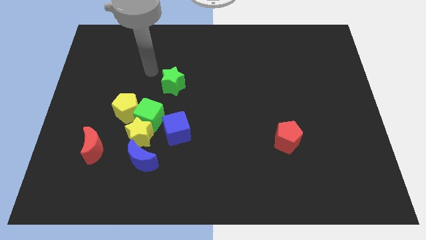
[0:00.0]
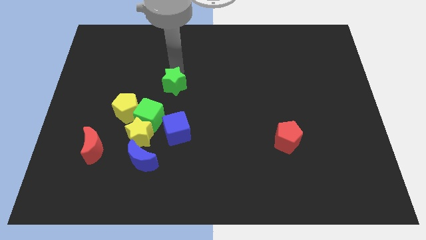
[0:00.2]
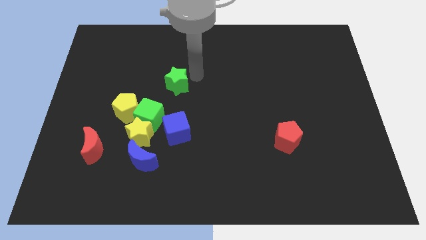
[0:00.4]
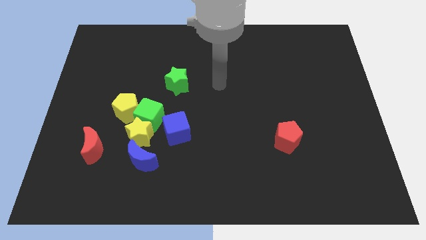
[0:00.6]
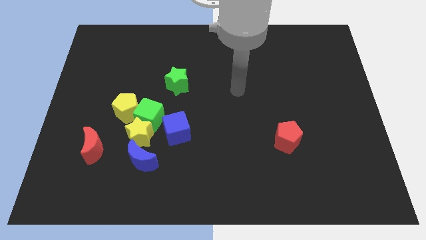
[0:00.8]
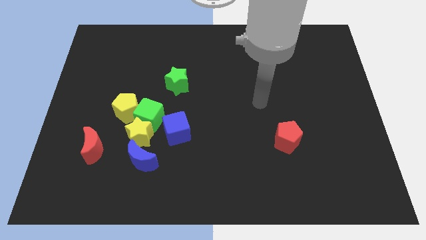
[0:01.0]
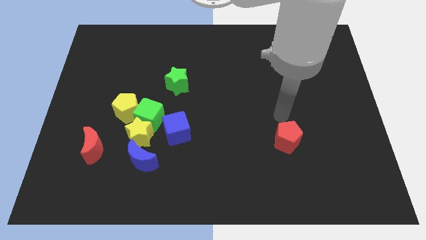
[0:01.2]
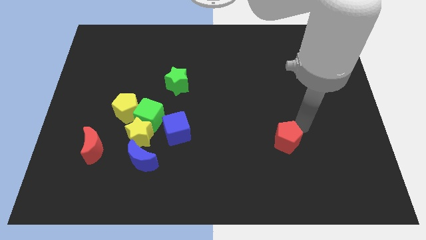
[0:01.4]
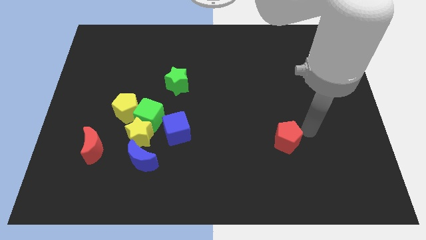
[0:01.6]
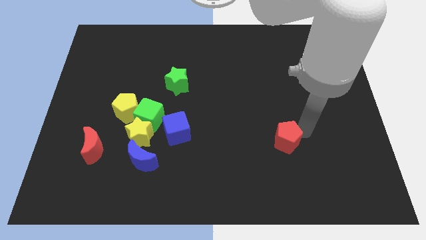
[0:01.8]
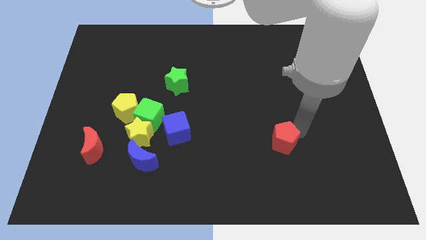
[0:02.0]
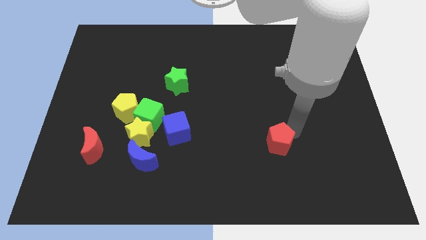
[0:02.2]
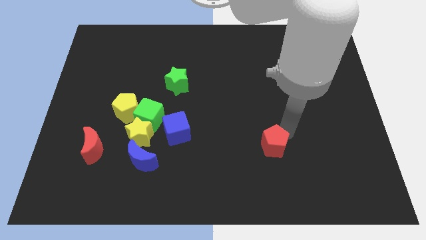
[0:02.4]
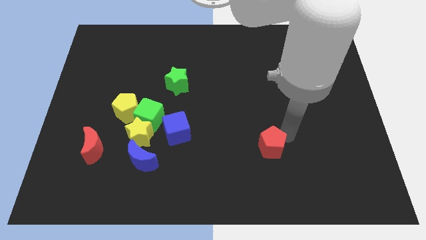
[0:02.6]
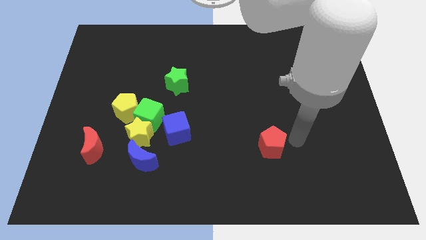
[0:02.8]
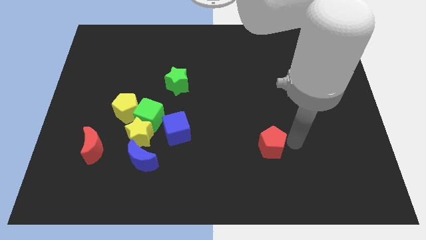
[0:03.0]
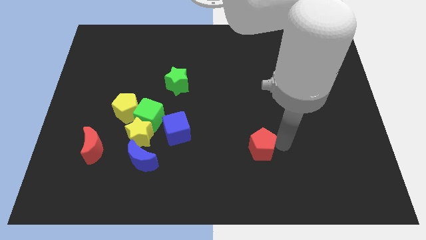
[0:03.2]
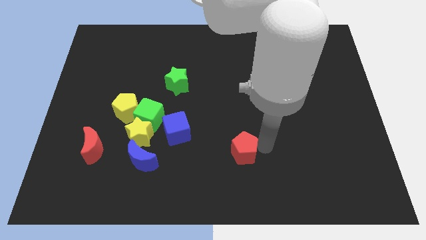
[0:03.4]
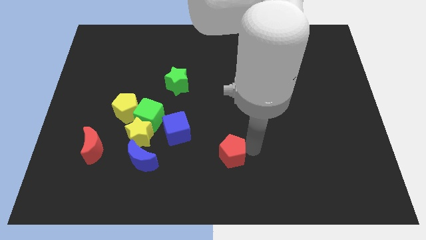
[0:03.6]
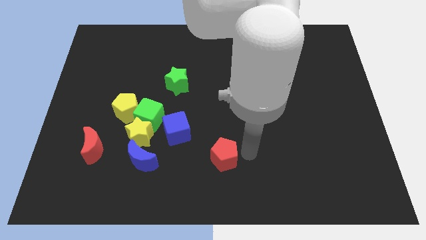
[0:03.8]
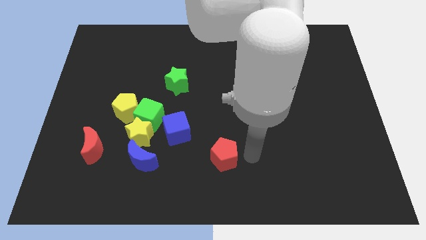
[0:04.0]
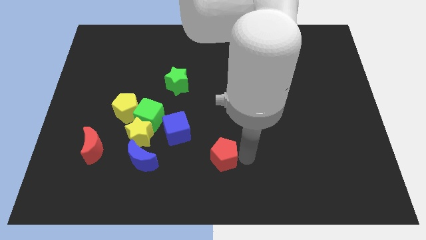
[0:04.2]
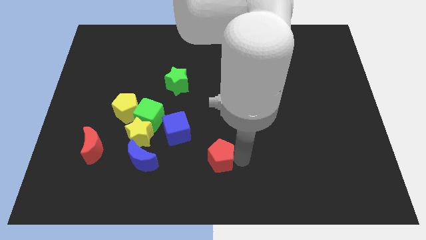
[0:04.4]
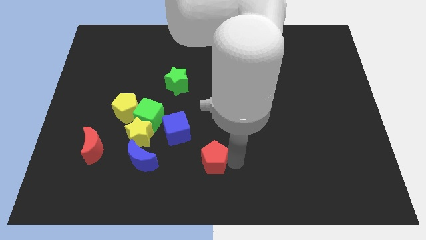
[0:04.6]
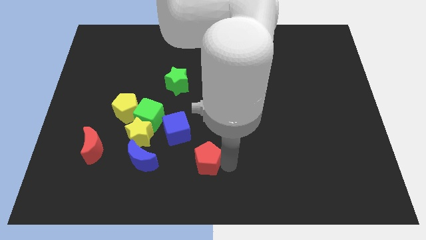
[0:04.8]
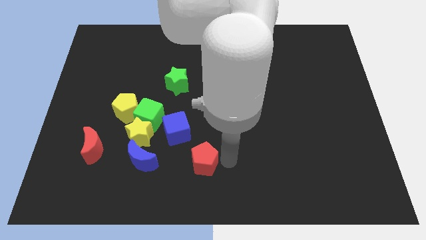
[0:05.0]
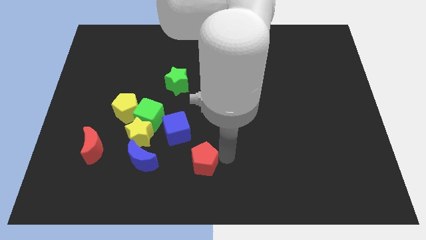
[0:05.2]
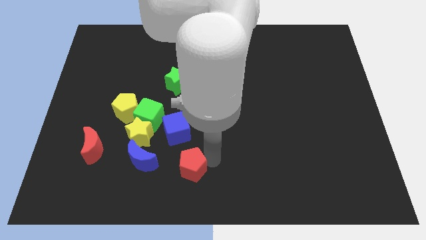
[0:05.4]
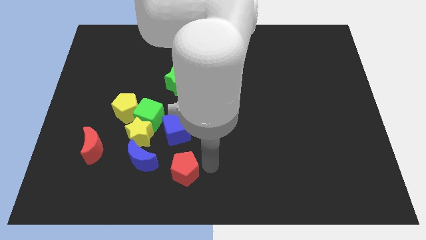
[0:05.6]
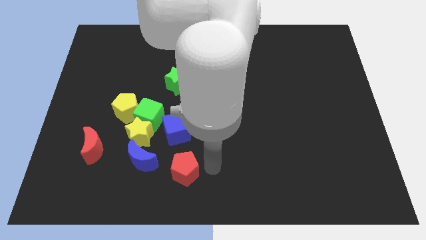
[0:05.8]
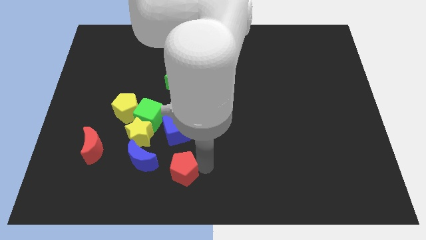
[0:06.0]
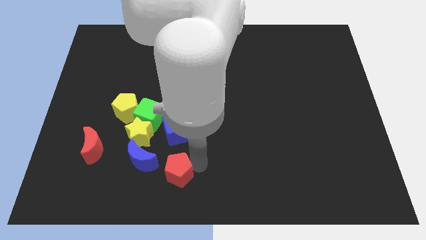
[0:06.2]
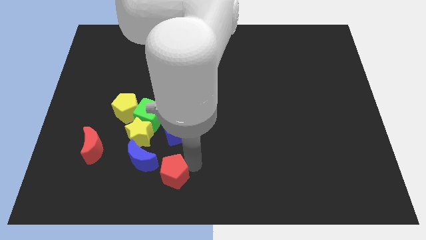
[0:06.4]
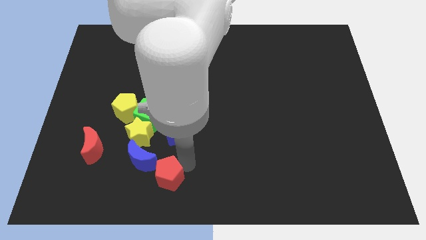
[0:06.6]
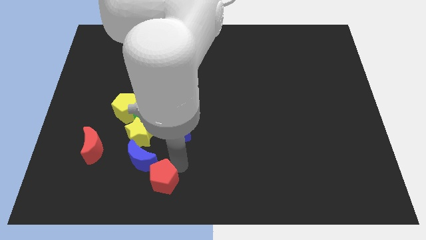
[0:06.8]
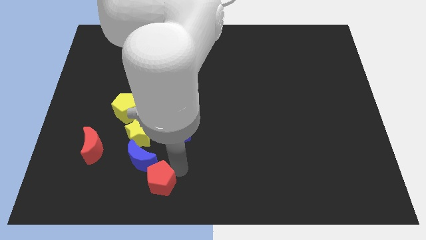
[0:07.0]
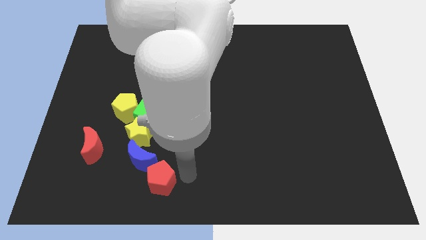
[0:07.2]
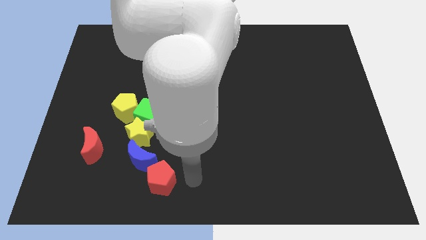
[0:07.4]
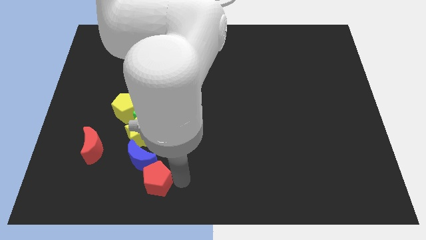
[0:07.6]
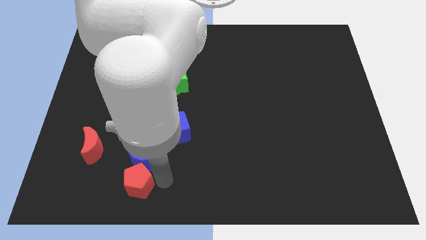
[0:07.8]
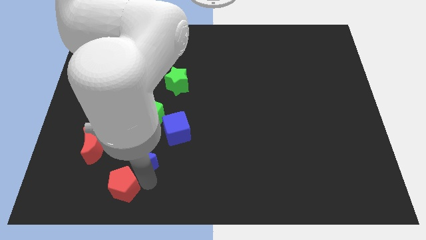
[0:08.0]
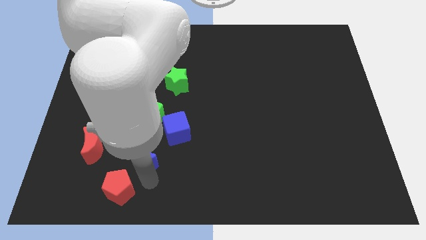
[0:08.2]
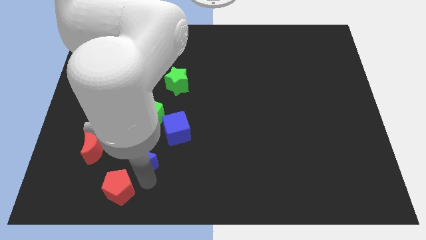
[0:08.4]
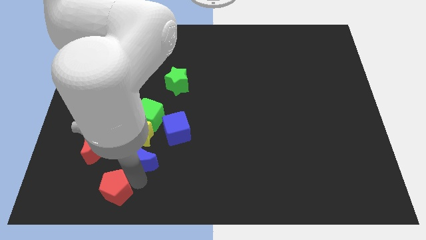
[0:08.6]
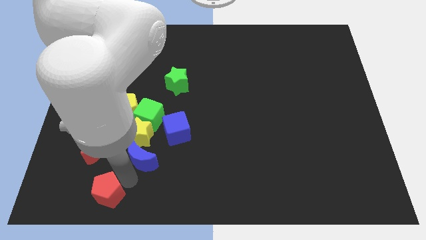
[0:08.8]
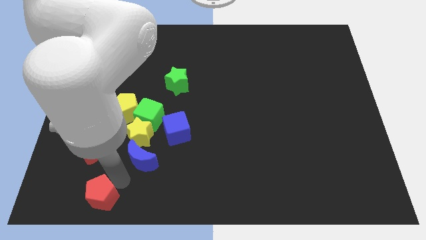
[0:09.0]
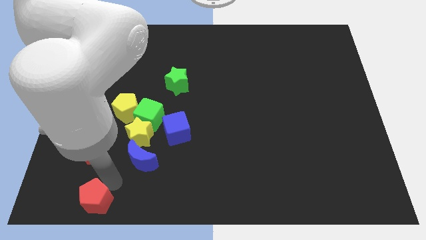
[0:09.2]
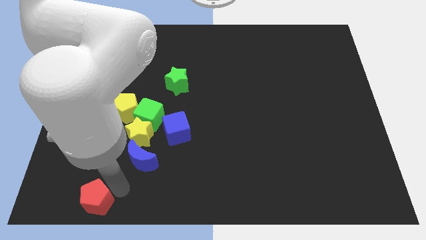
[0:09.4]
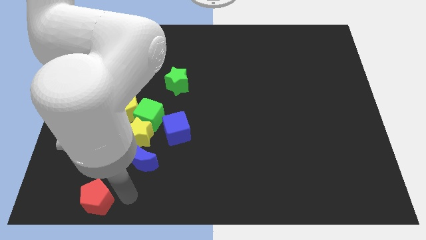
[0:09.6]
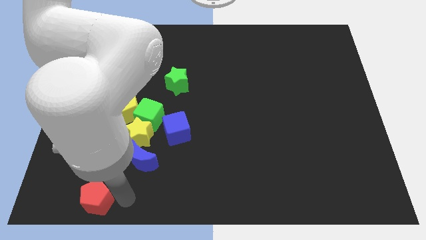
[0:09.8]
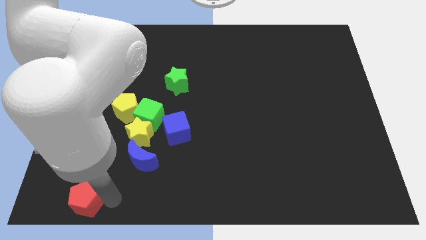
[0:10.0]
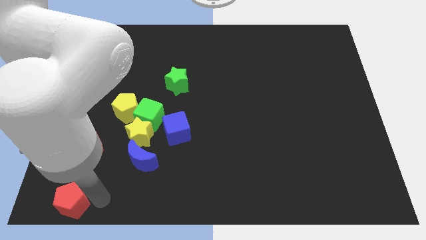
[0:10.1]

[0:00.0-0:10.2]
put the red pentagon to the lower left corner
